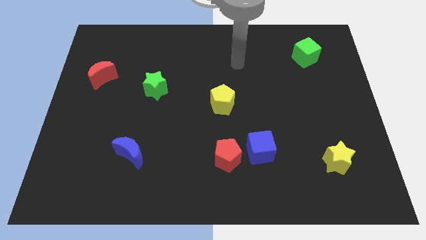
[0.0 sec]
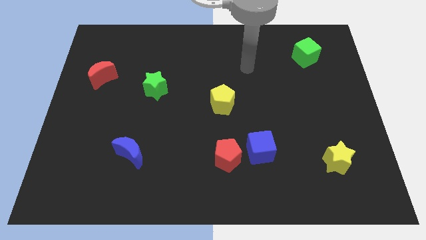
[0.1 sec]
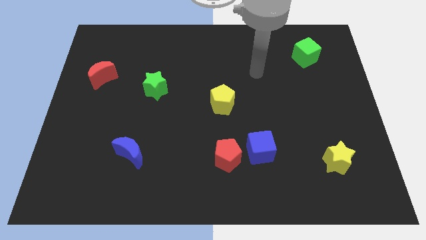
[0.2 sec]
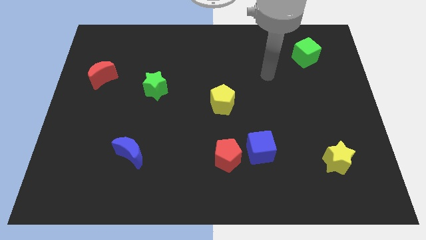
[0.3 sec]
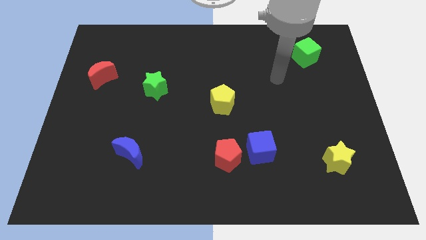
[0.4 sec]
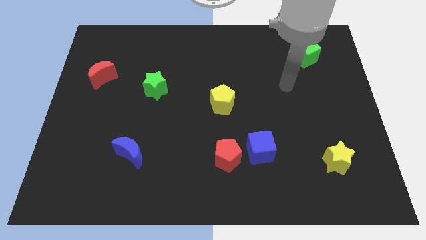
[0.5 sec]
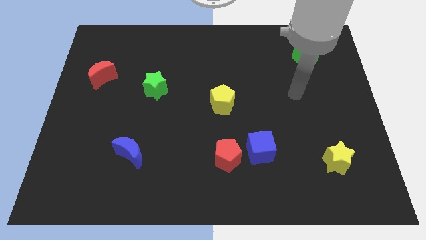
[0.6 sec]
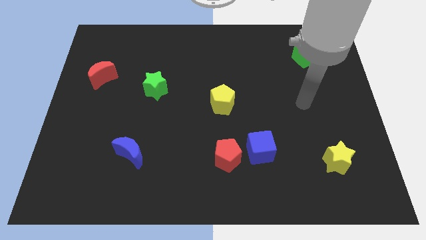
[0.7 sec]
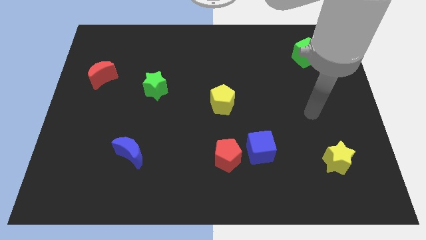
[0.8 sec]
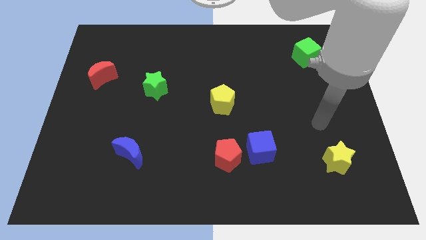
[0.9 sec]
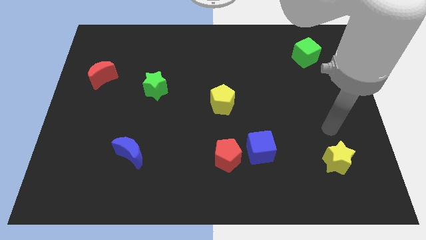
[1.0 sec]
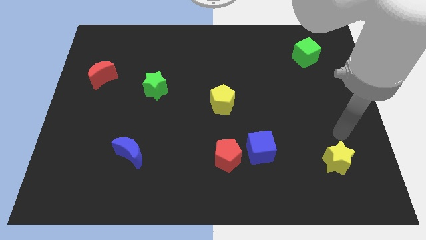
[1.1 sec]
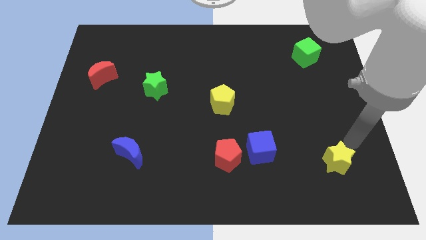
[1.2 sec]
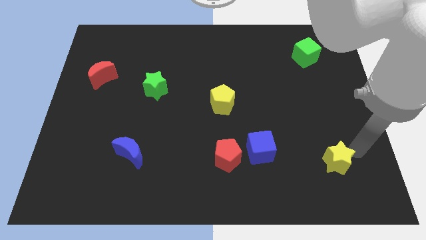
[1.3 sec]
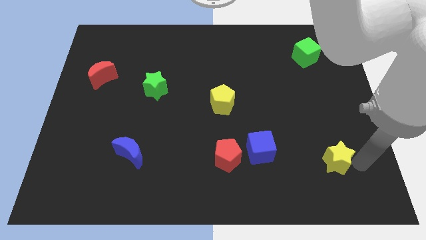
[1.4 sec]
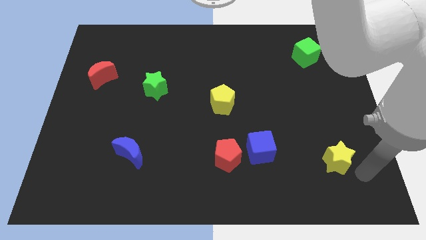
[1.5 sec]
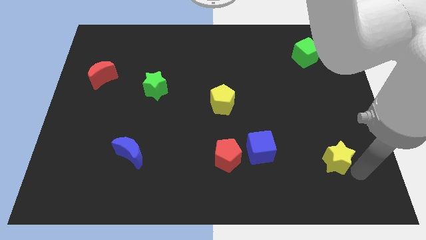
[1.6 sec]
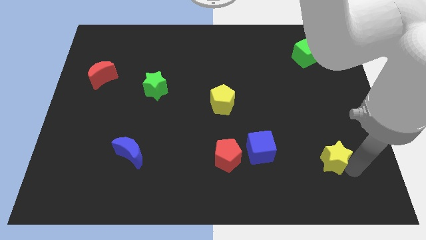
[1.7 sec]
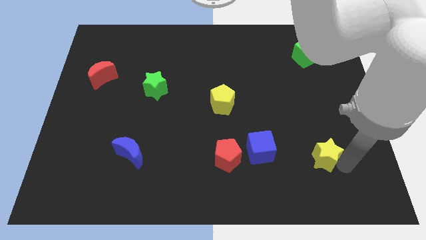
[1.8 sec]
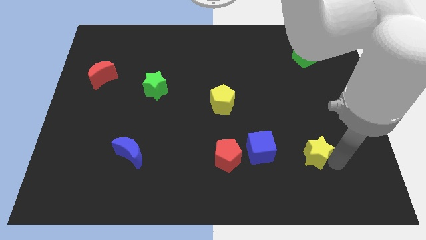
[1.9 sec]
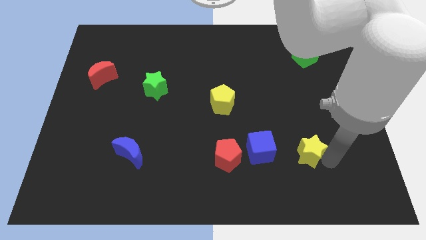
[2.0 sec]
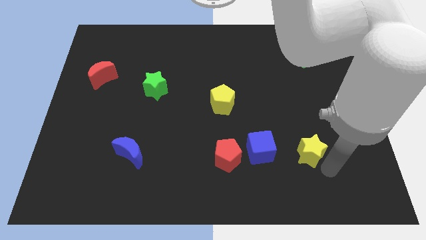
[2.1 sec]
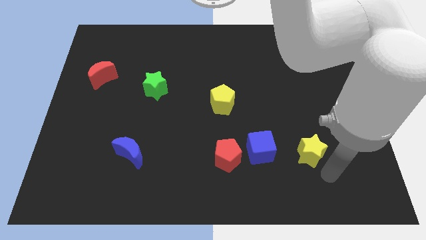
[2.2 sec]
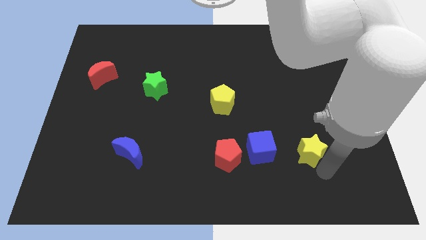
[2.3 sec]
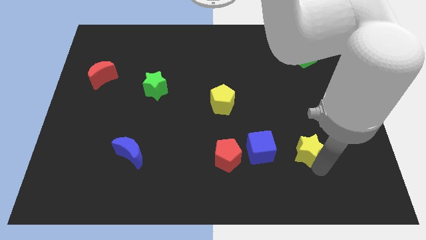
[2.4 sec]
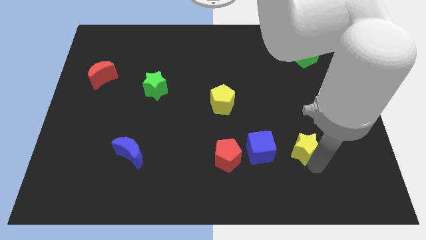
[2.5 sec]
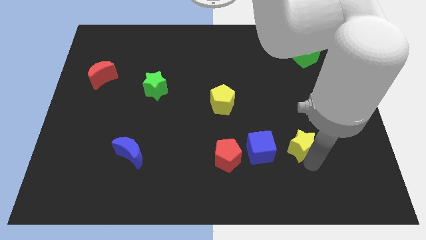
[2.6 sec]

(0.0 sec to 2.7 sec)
move the yellow star a little upwards and to the left

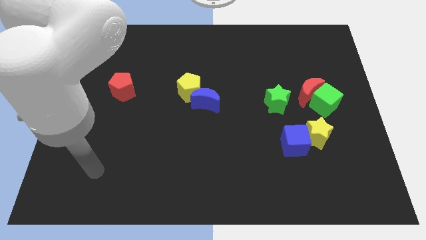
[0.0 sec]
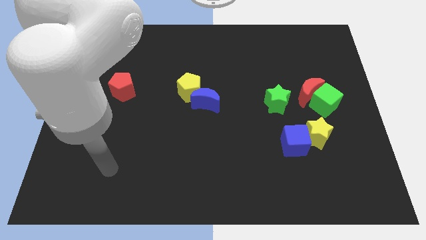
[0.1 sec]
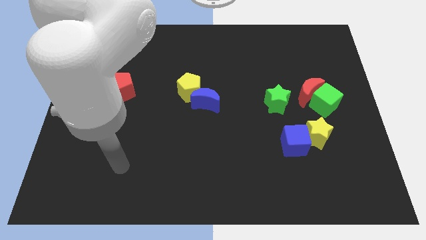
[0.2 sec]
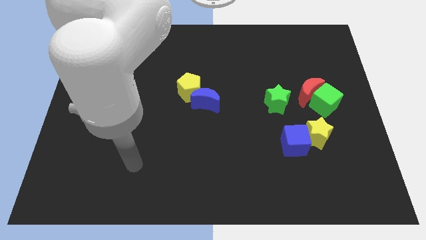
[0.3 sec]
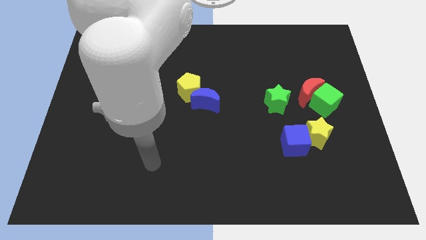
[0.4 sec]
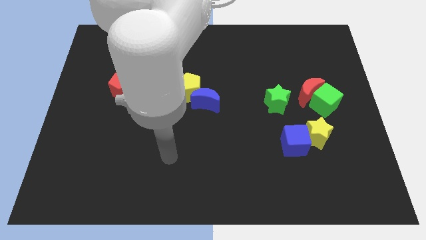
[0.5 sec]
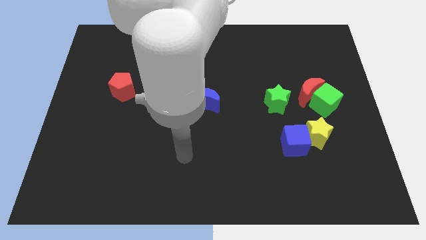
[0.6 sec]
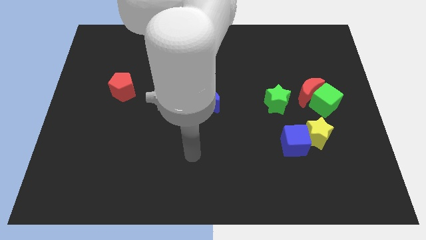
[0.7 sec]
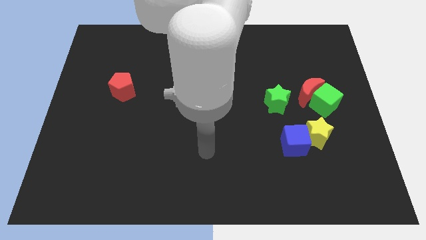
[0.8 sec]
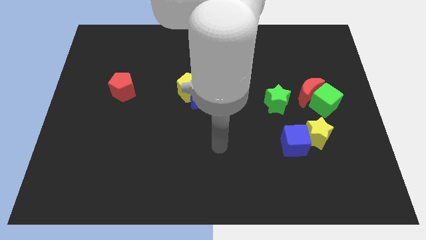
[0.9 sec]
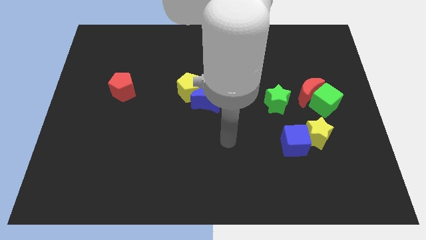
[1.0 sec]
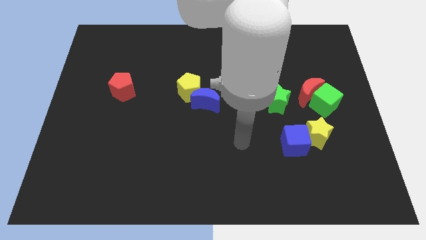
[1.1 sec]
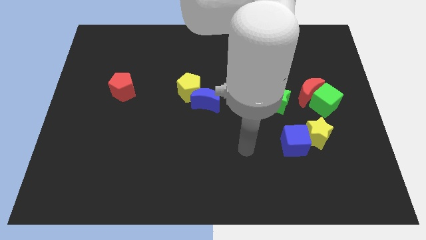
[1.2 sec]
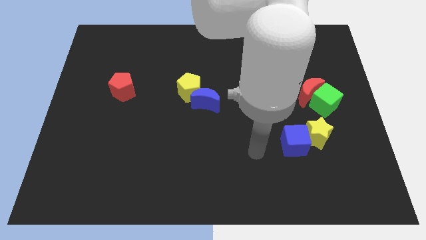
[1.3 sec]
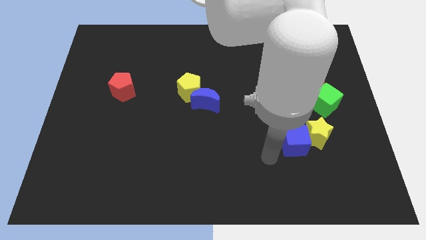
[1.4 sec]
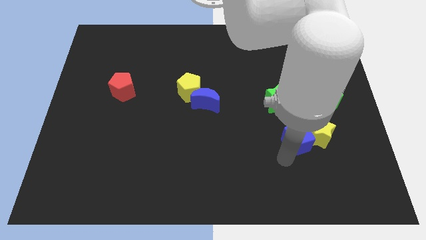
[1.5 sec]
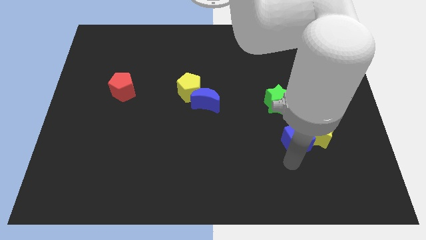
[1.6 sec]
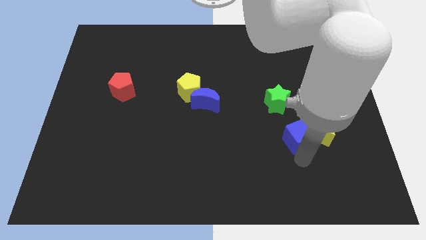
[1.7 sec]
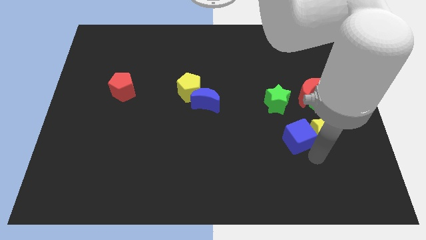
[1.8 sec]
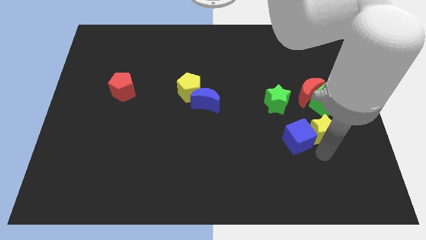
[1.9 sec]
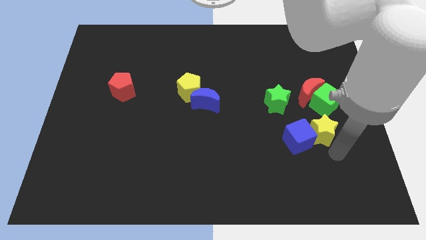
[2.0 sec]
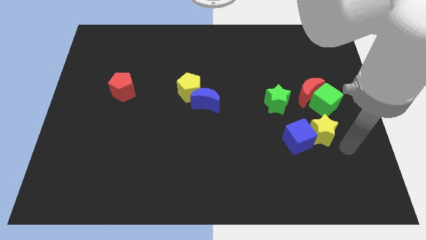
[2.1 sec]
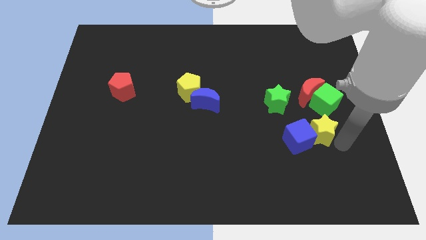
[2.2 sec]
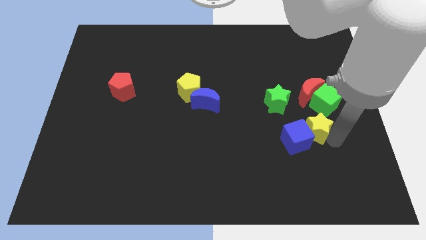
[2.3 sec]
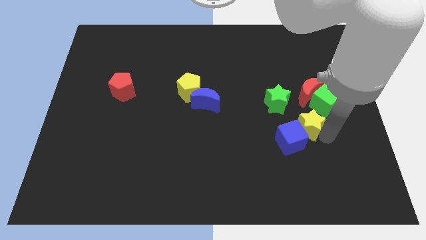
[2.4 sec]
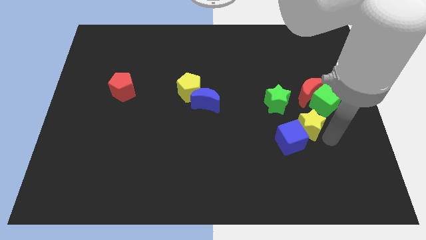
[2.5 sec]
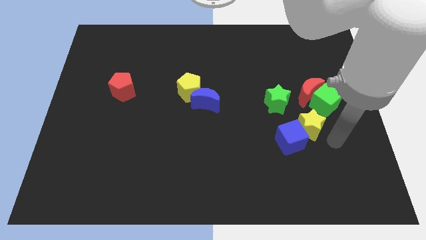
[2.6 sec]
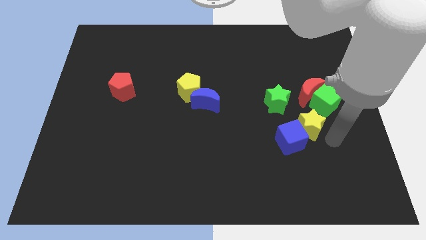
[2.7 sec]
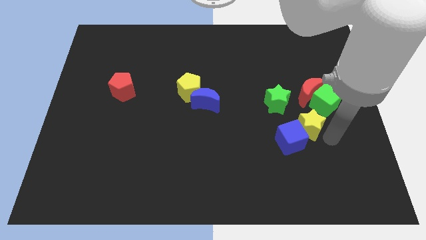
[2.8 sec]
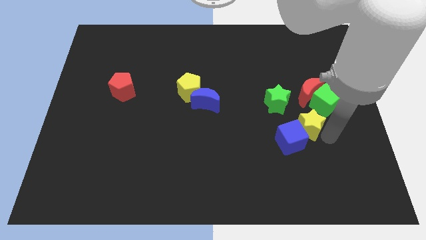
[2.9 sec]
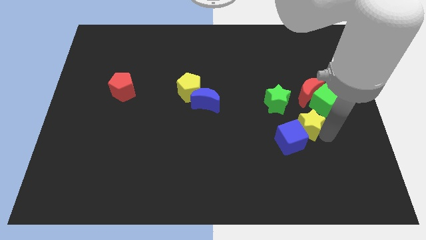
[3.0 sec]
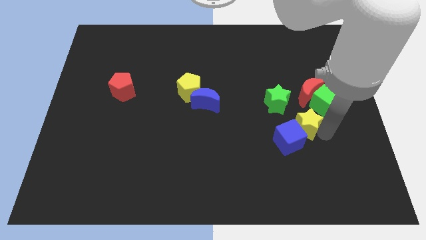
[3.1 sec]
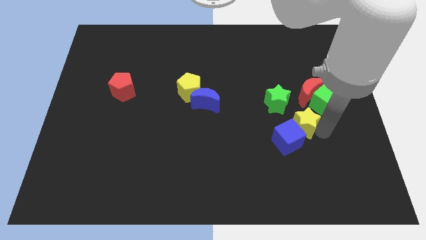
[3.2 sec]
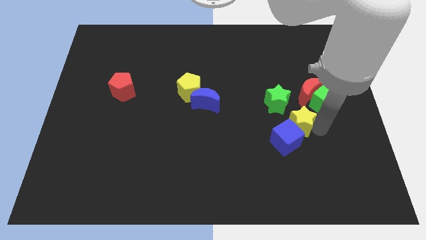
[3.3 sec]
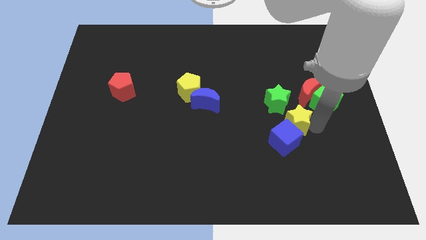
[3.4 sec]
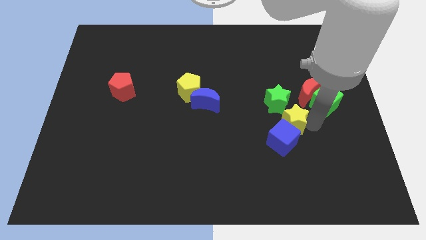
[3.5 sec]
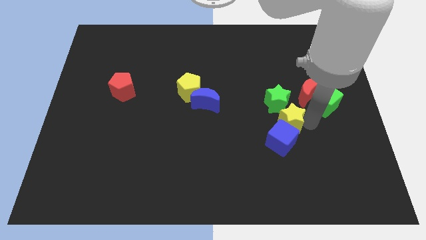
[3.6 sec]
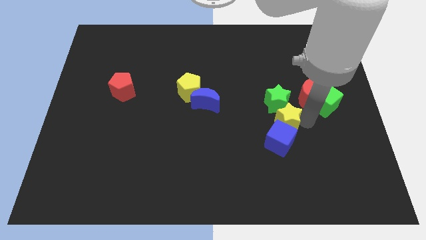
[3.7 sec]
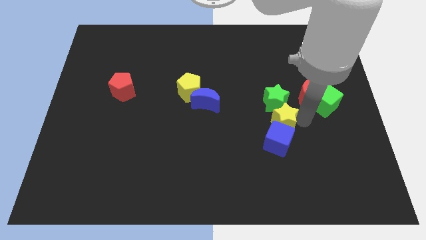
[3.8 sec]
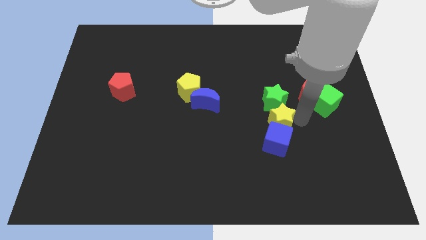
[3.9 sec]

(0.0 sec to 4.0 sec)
slightly move the yellow star to the left

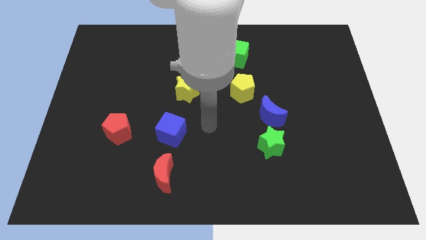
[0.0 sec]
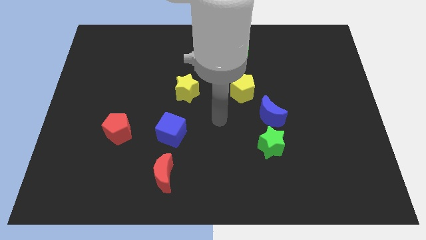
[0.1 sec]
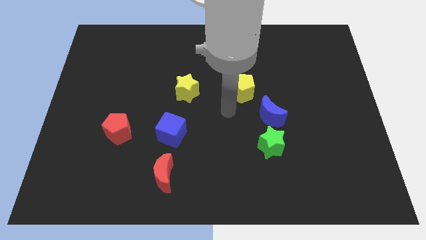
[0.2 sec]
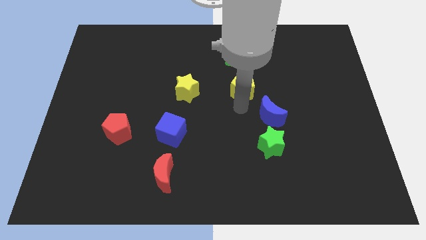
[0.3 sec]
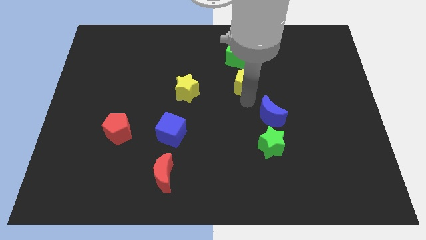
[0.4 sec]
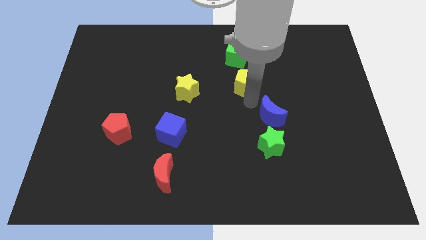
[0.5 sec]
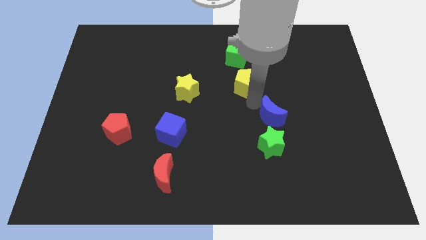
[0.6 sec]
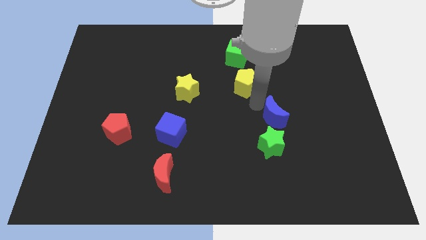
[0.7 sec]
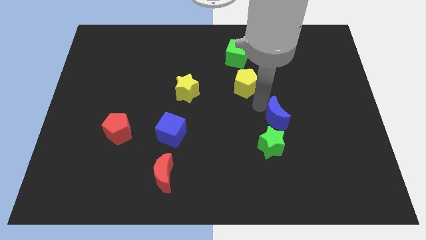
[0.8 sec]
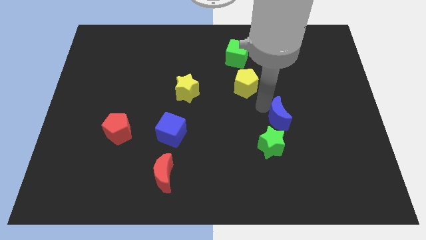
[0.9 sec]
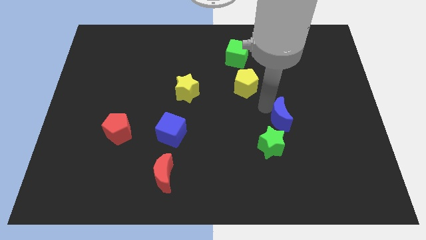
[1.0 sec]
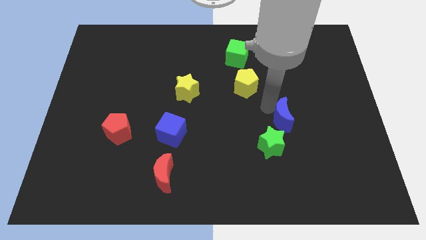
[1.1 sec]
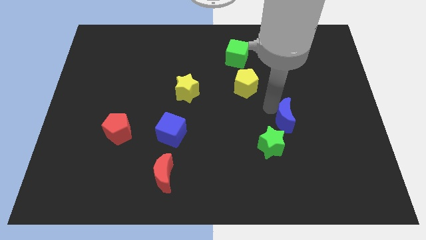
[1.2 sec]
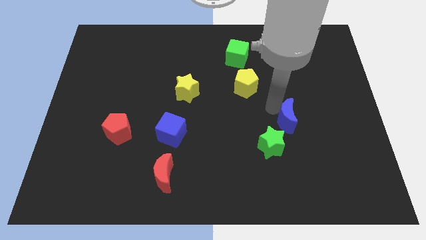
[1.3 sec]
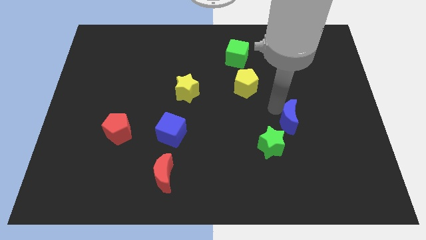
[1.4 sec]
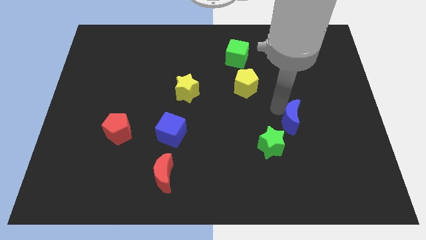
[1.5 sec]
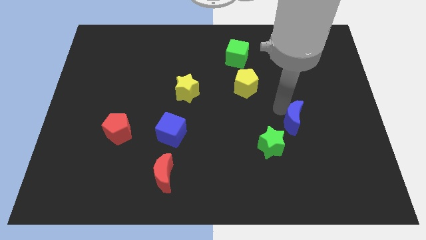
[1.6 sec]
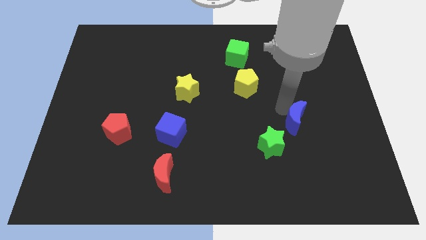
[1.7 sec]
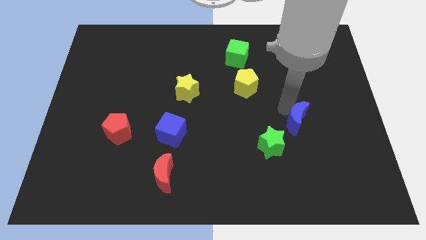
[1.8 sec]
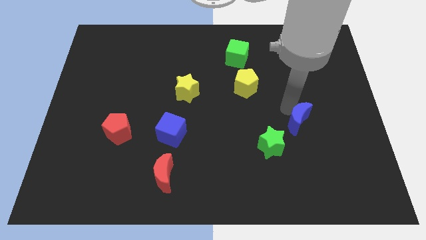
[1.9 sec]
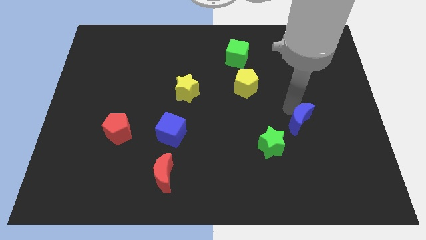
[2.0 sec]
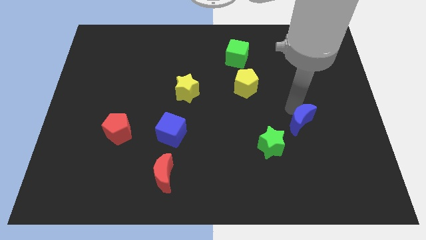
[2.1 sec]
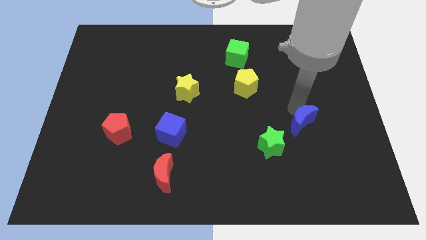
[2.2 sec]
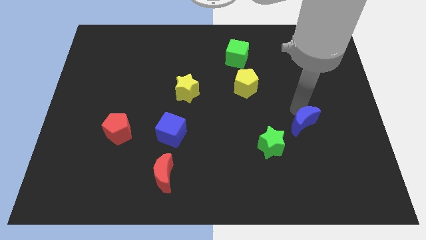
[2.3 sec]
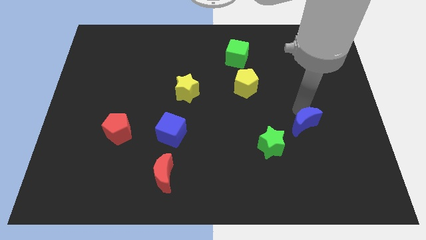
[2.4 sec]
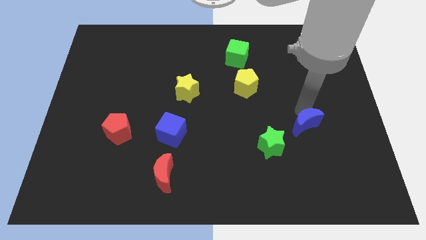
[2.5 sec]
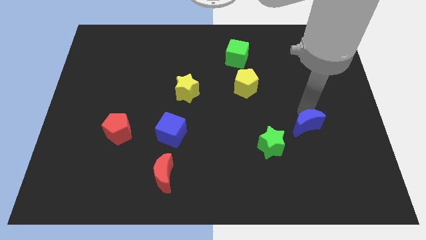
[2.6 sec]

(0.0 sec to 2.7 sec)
slide the blue moon diagonally down and to the right slightly
